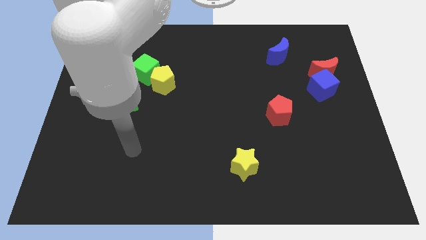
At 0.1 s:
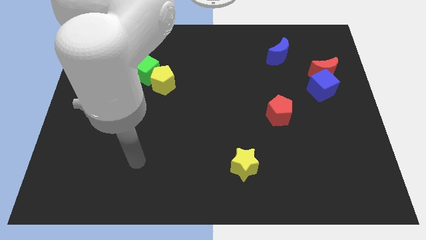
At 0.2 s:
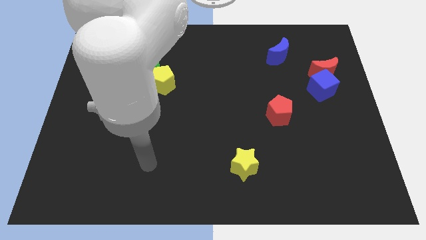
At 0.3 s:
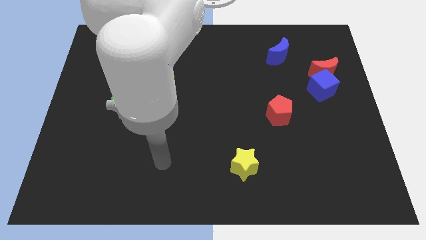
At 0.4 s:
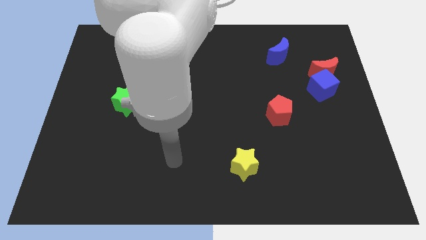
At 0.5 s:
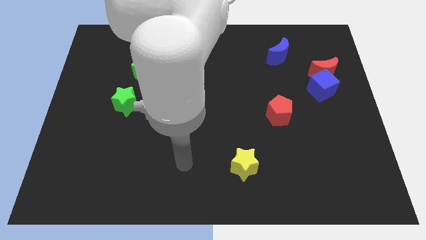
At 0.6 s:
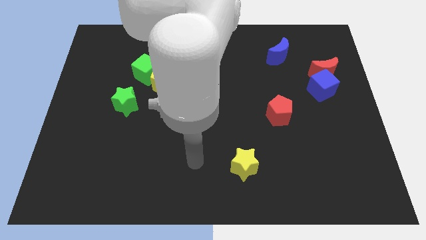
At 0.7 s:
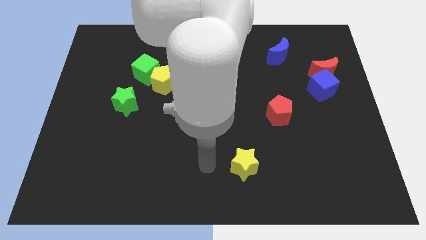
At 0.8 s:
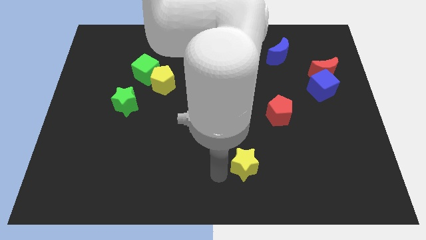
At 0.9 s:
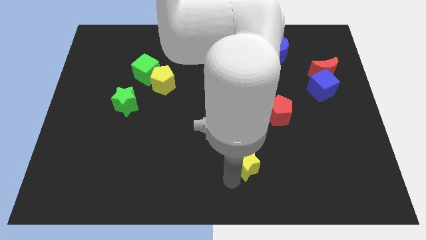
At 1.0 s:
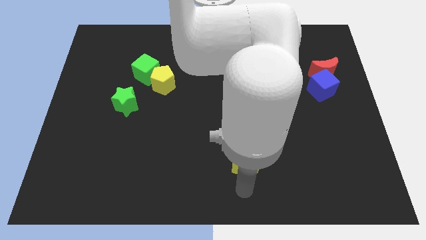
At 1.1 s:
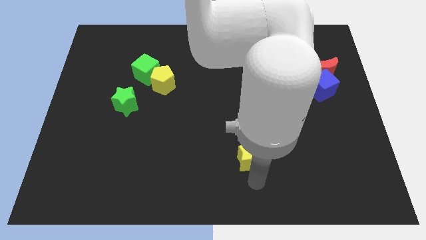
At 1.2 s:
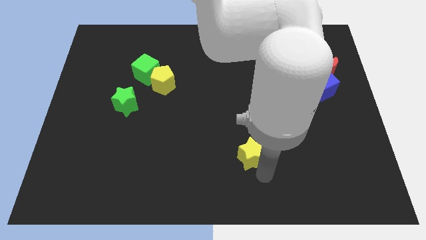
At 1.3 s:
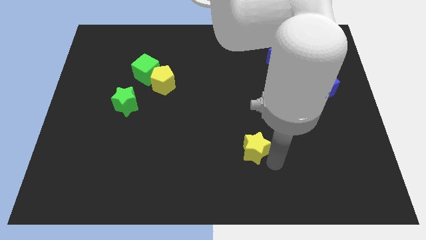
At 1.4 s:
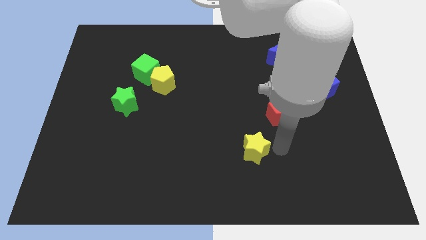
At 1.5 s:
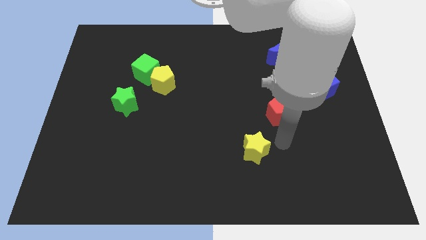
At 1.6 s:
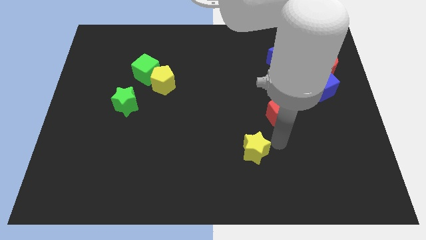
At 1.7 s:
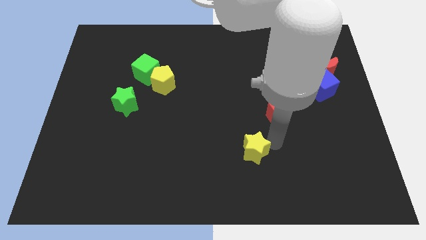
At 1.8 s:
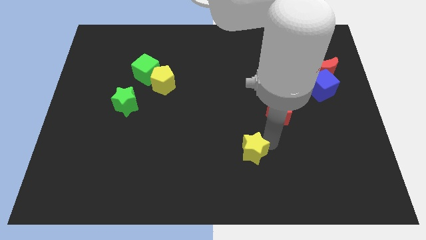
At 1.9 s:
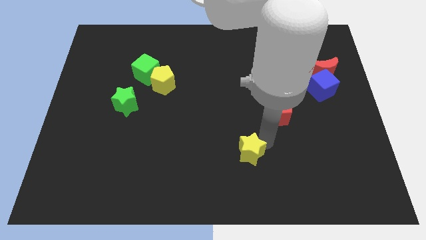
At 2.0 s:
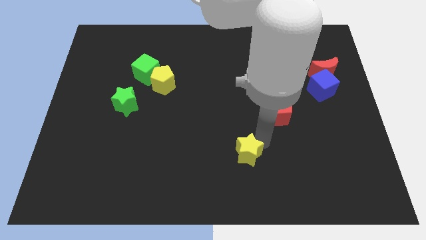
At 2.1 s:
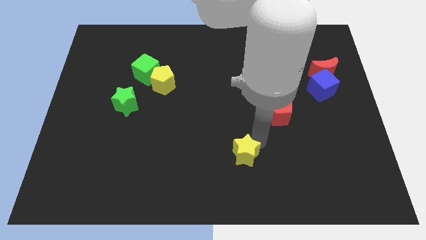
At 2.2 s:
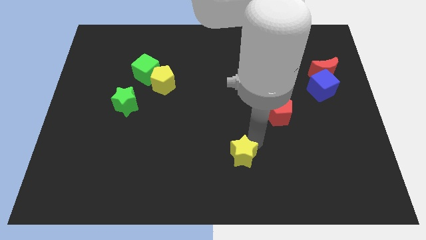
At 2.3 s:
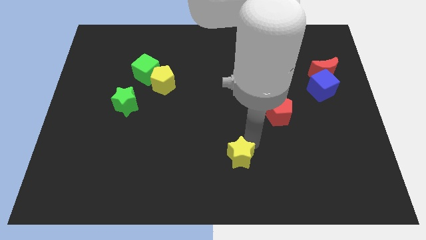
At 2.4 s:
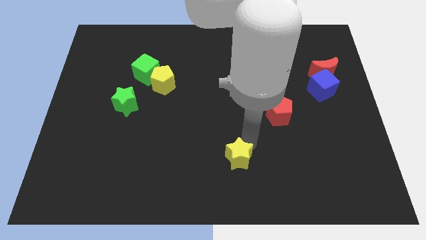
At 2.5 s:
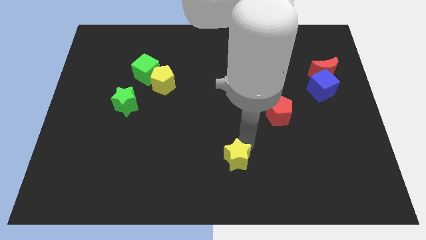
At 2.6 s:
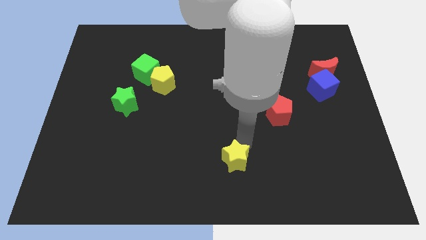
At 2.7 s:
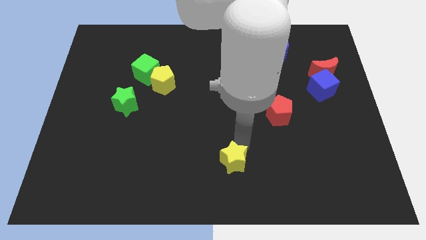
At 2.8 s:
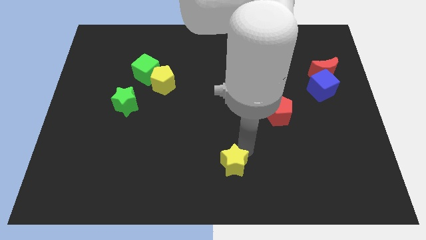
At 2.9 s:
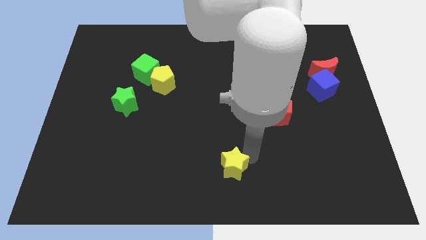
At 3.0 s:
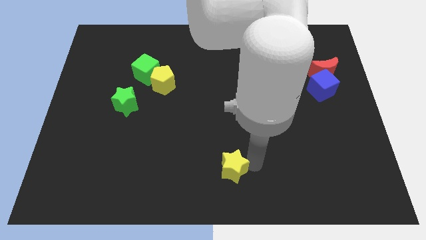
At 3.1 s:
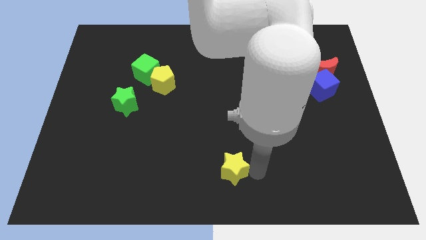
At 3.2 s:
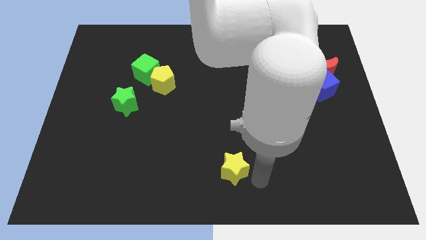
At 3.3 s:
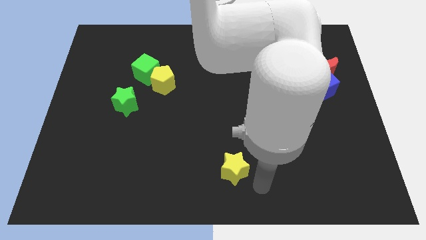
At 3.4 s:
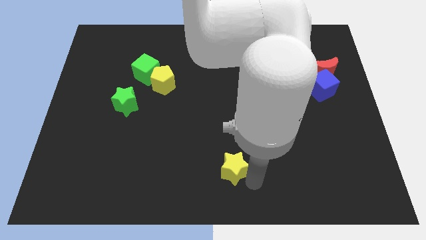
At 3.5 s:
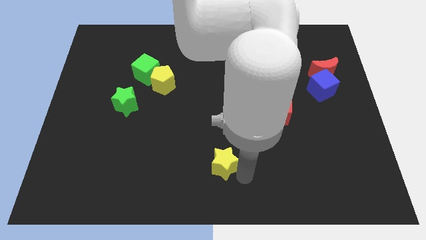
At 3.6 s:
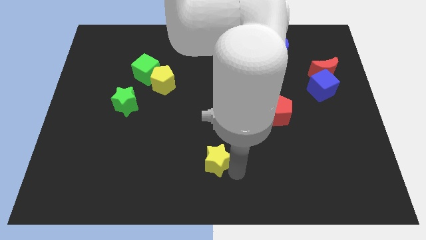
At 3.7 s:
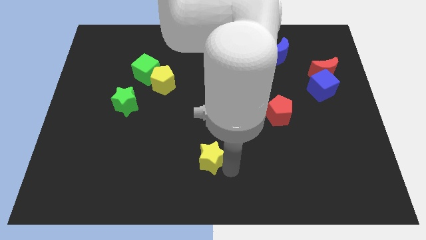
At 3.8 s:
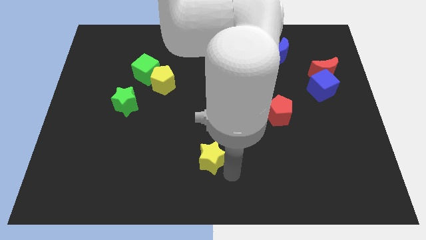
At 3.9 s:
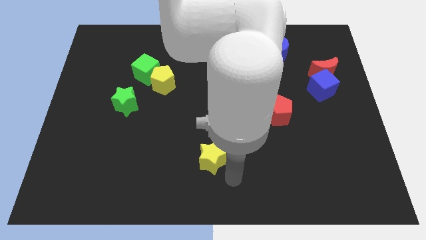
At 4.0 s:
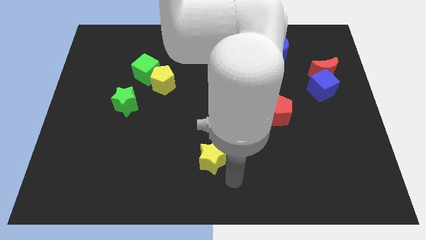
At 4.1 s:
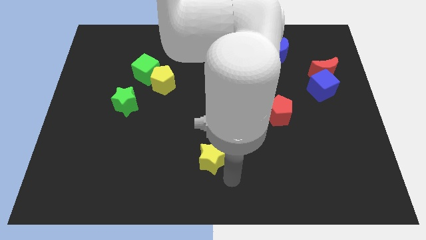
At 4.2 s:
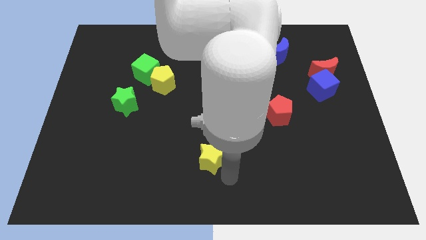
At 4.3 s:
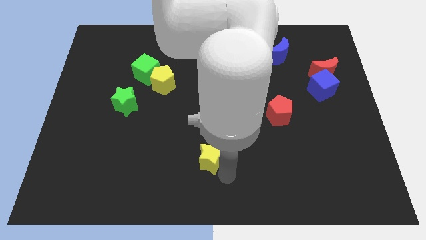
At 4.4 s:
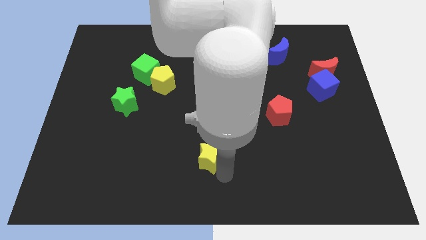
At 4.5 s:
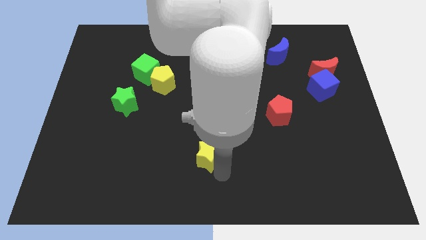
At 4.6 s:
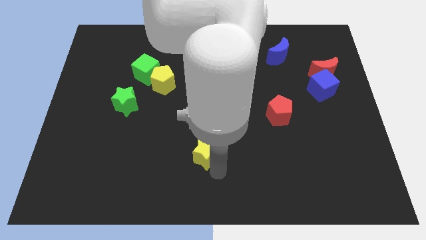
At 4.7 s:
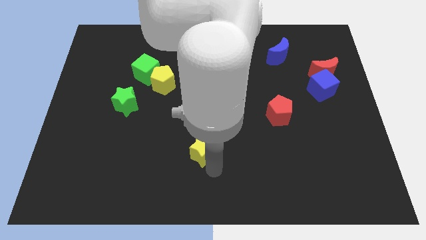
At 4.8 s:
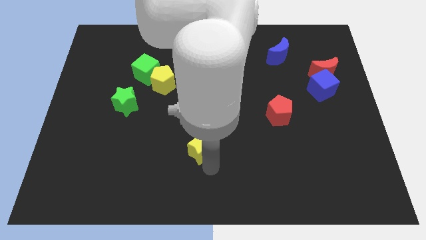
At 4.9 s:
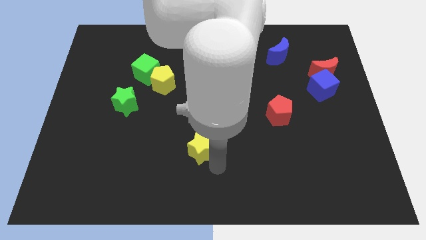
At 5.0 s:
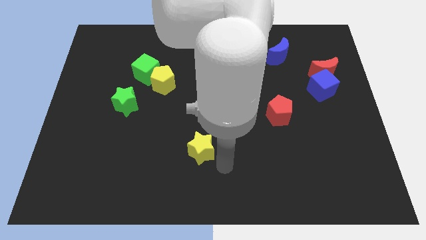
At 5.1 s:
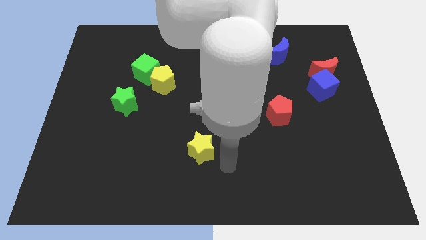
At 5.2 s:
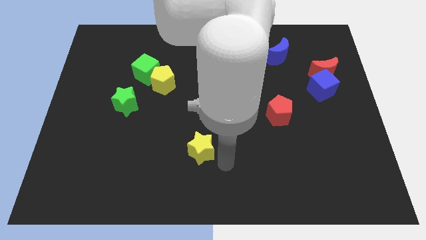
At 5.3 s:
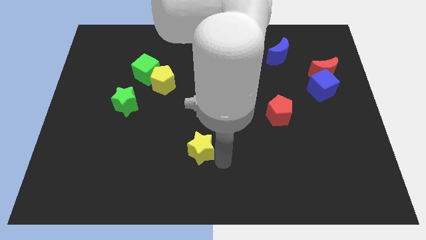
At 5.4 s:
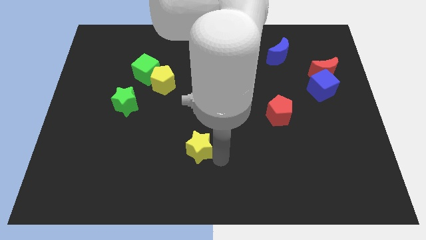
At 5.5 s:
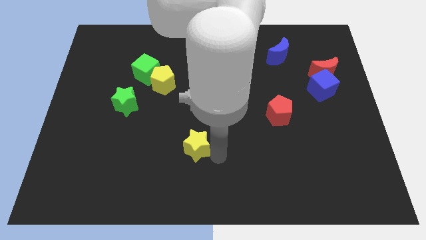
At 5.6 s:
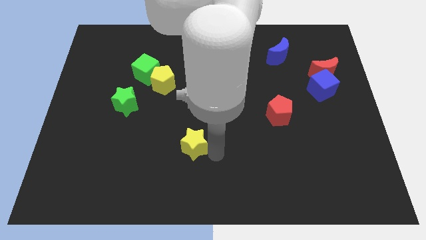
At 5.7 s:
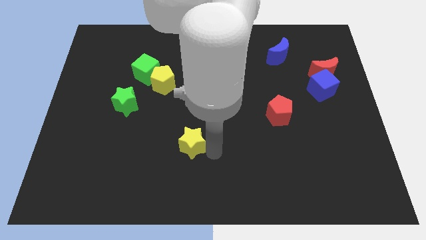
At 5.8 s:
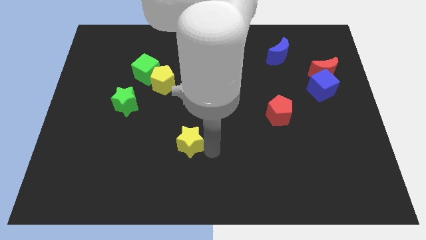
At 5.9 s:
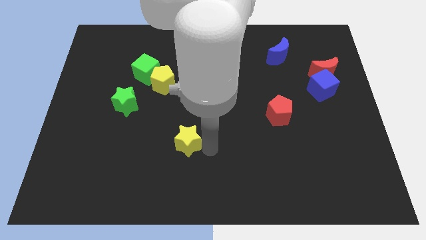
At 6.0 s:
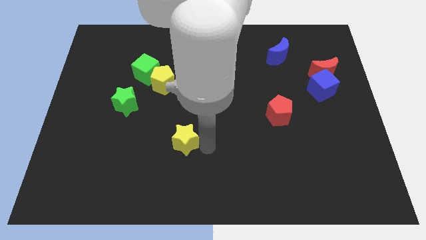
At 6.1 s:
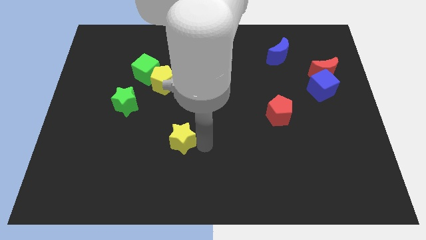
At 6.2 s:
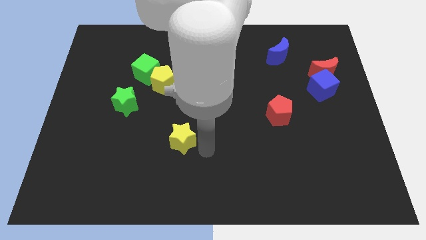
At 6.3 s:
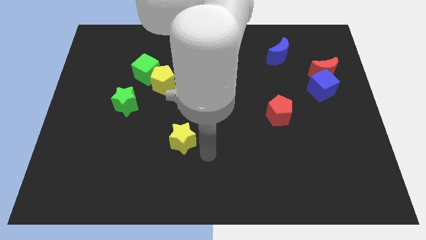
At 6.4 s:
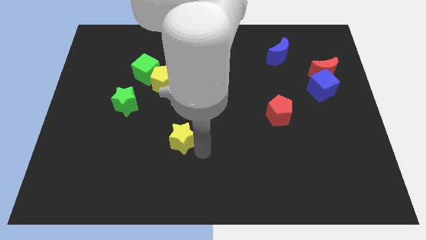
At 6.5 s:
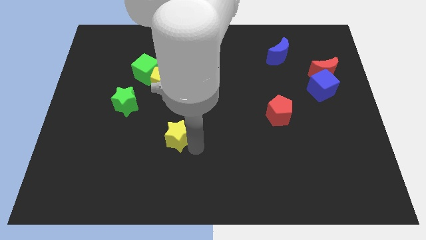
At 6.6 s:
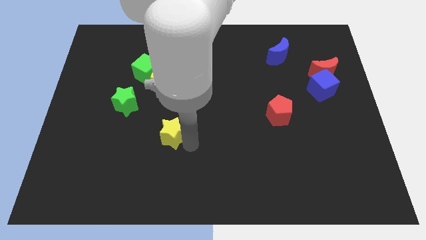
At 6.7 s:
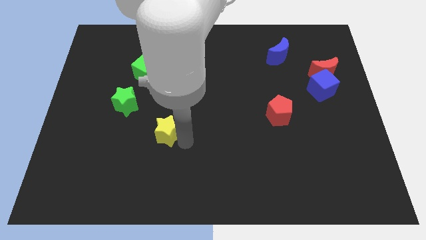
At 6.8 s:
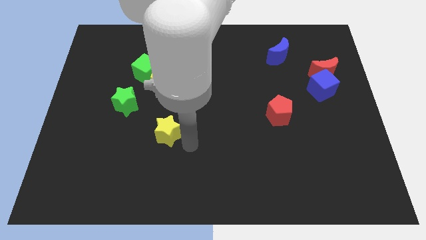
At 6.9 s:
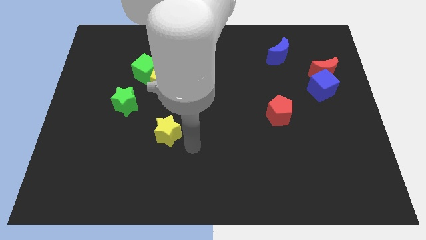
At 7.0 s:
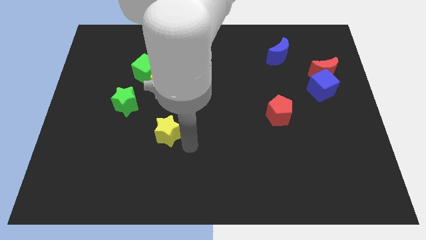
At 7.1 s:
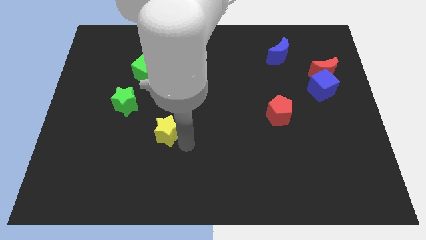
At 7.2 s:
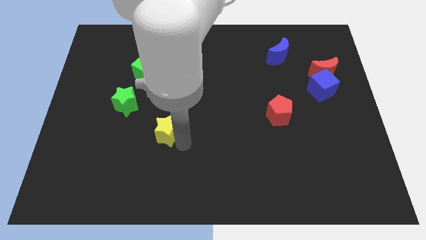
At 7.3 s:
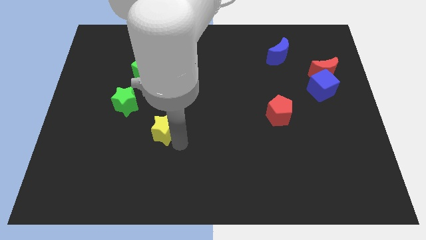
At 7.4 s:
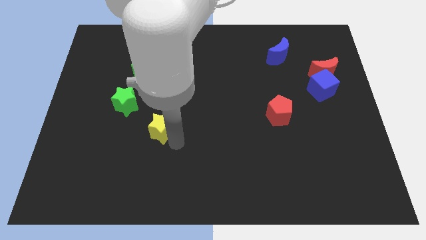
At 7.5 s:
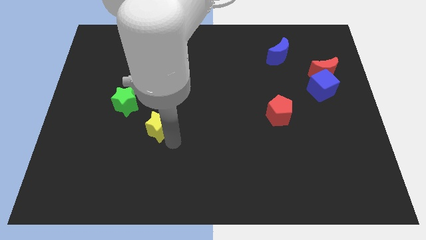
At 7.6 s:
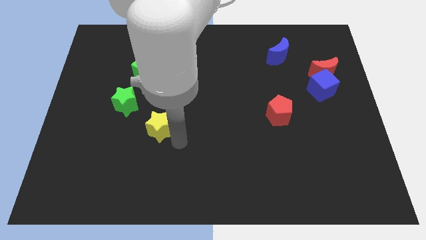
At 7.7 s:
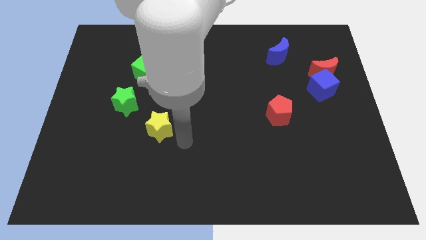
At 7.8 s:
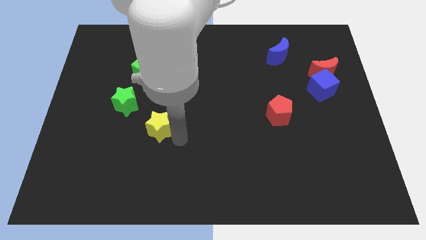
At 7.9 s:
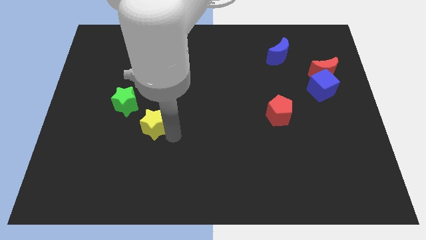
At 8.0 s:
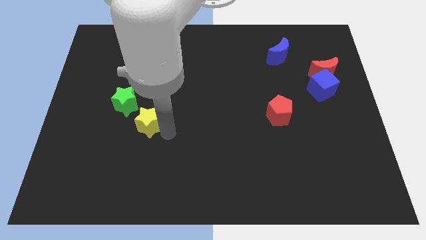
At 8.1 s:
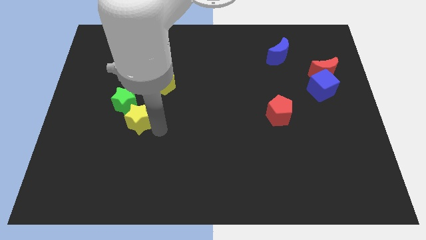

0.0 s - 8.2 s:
slide the yellow star towards the green star
